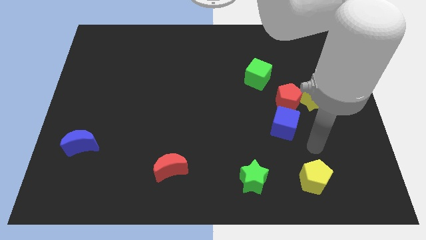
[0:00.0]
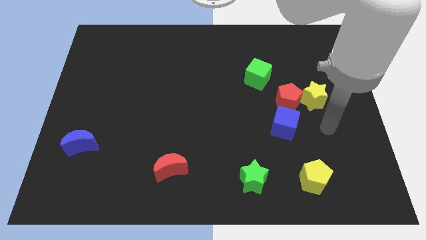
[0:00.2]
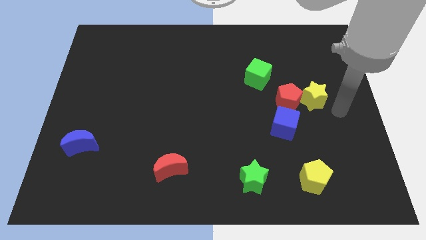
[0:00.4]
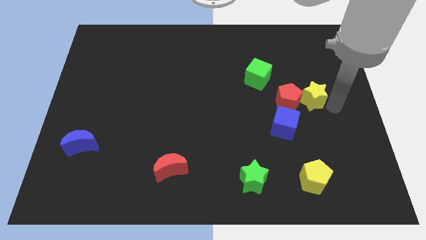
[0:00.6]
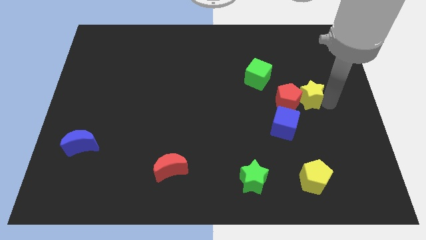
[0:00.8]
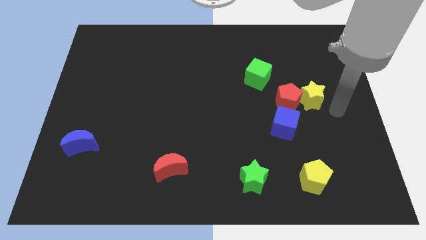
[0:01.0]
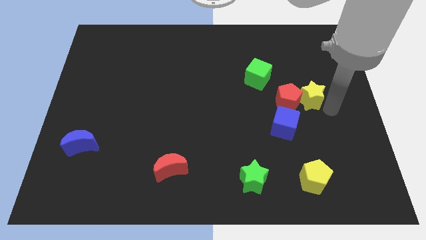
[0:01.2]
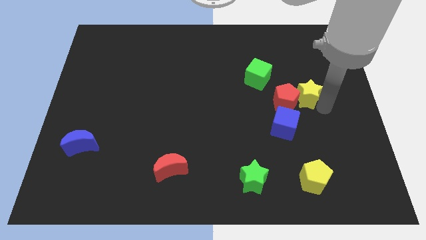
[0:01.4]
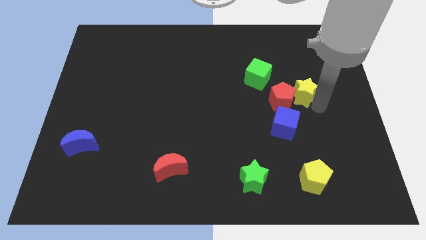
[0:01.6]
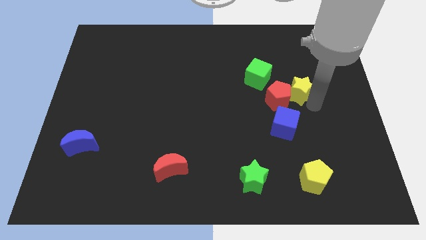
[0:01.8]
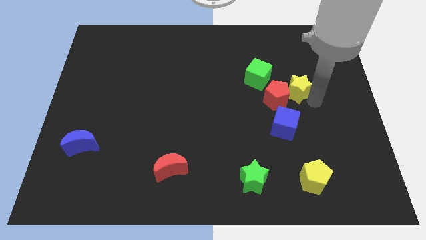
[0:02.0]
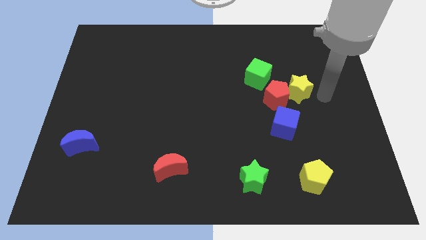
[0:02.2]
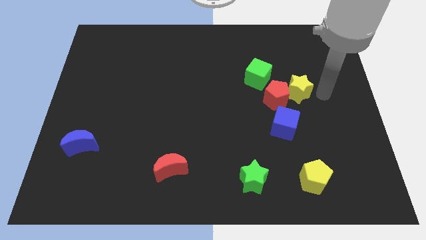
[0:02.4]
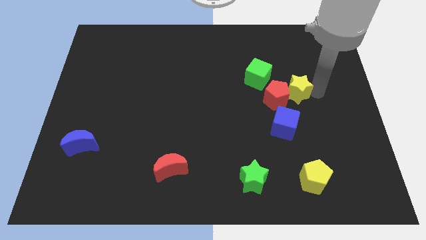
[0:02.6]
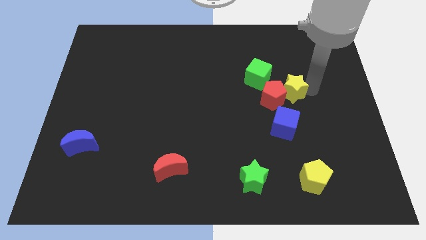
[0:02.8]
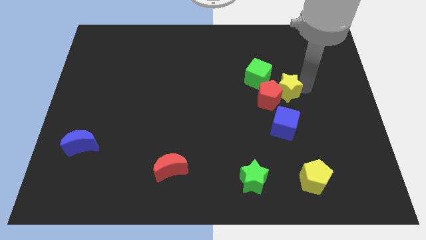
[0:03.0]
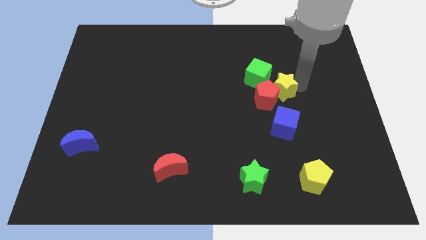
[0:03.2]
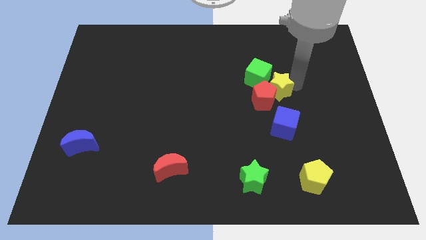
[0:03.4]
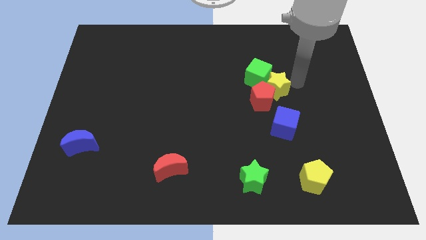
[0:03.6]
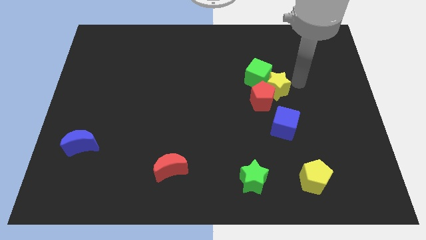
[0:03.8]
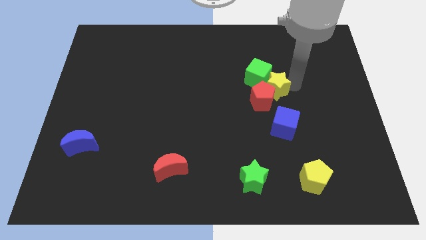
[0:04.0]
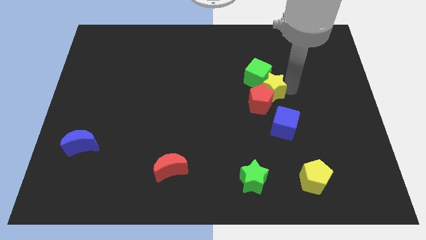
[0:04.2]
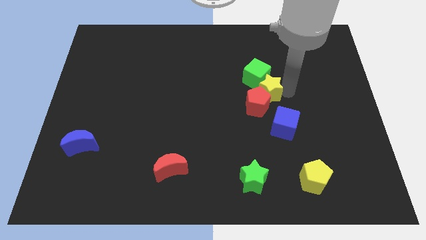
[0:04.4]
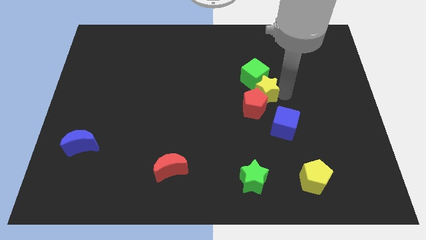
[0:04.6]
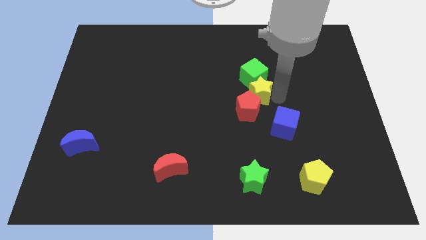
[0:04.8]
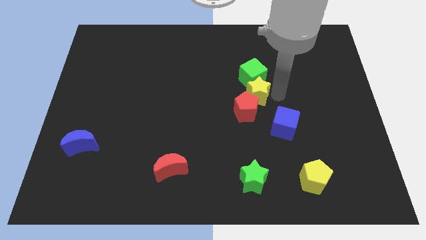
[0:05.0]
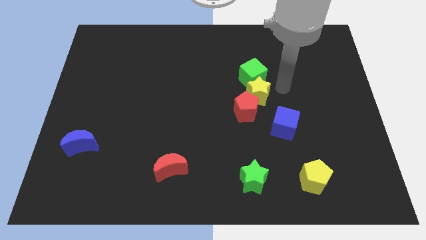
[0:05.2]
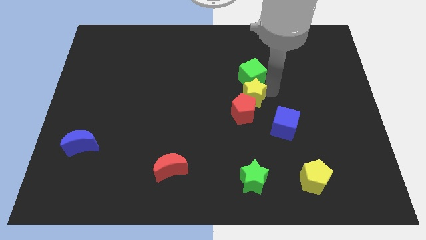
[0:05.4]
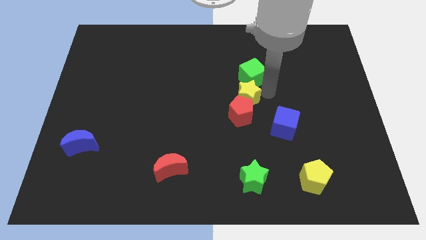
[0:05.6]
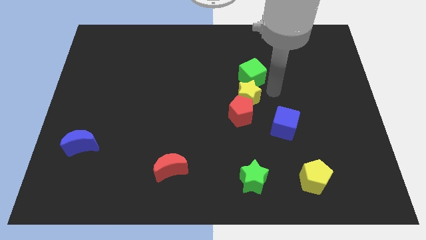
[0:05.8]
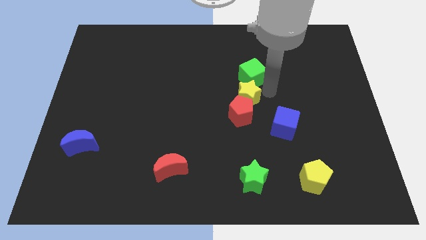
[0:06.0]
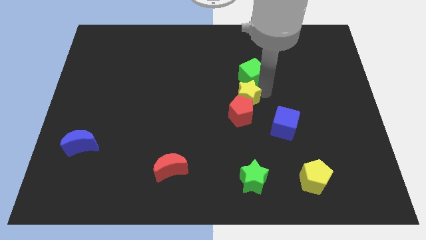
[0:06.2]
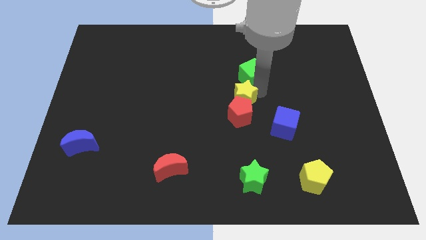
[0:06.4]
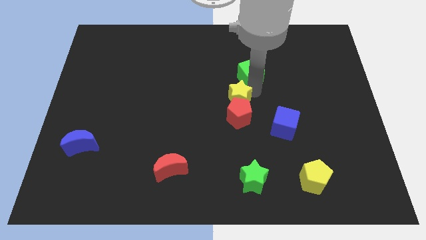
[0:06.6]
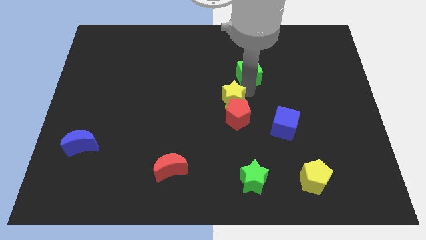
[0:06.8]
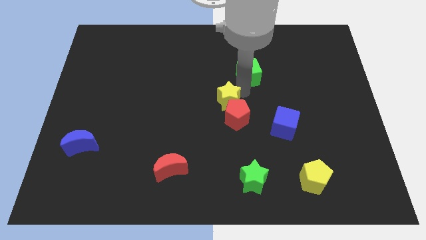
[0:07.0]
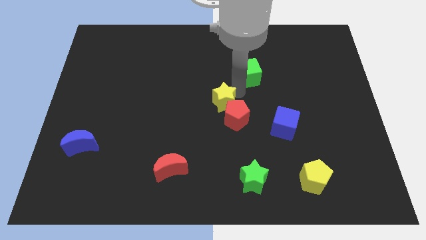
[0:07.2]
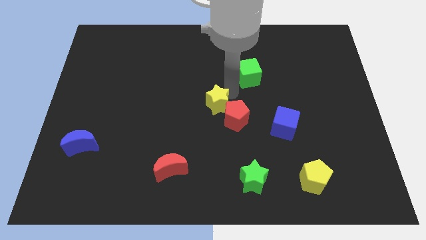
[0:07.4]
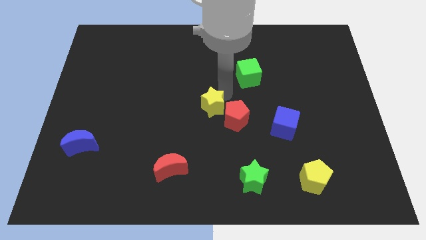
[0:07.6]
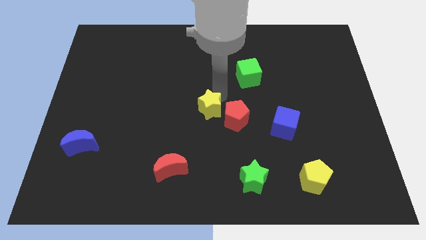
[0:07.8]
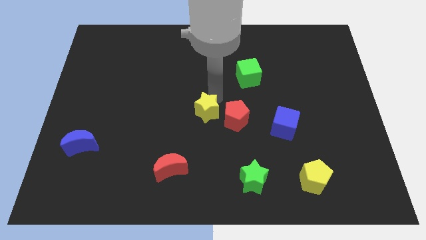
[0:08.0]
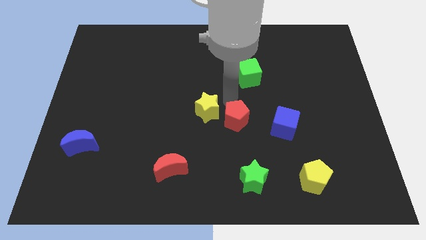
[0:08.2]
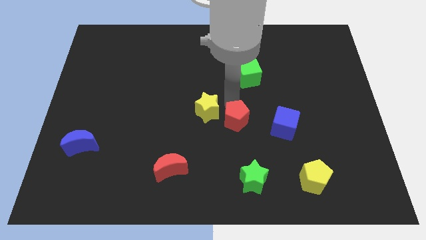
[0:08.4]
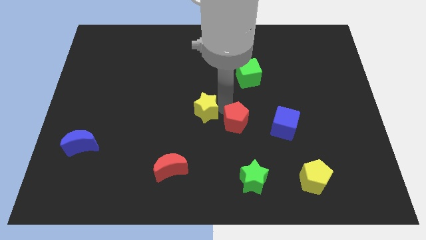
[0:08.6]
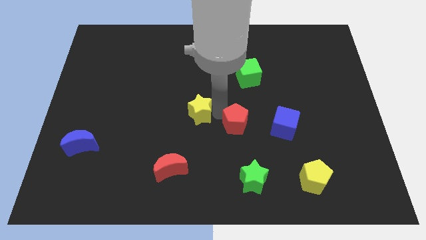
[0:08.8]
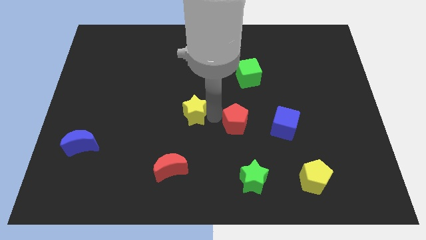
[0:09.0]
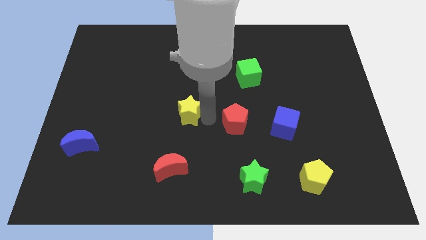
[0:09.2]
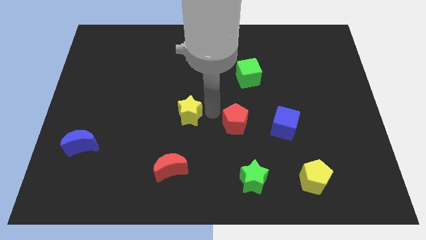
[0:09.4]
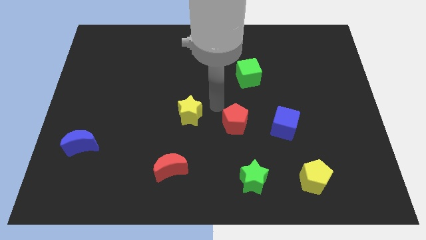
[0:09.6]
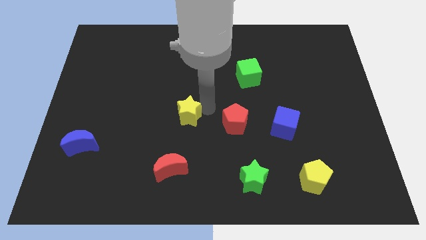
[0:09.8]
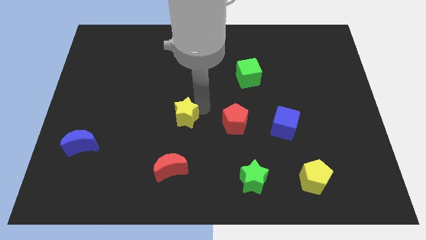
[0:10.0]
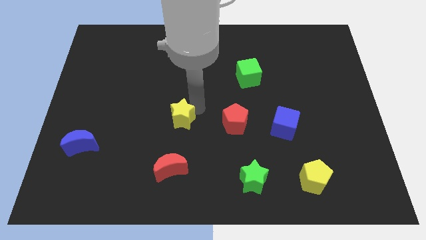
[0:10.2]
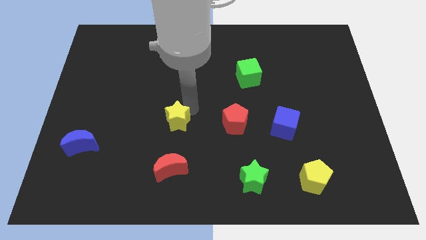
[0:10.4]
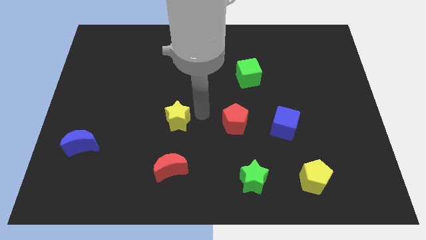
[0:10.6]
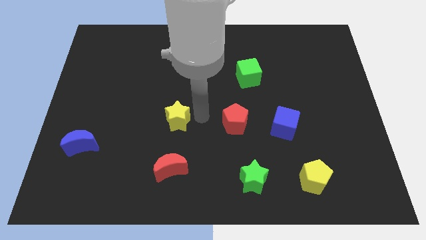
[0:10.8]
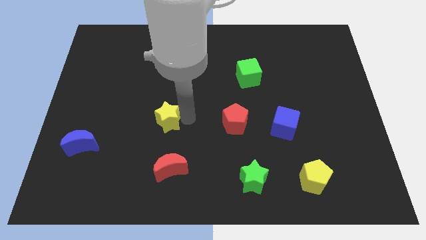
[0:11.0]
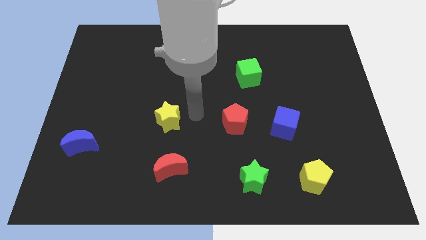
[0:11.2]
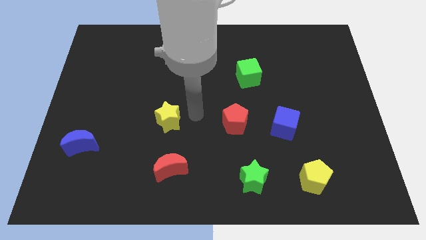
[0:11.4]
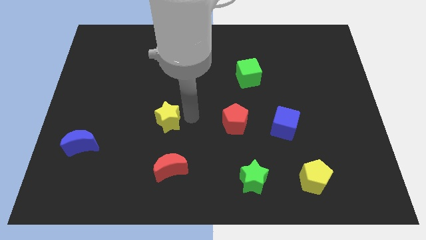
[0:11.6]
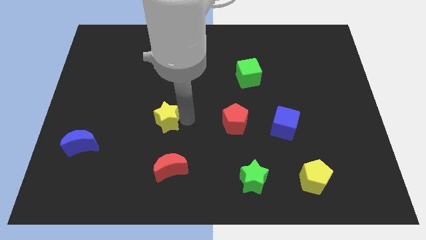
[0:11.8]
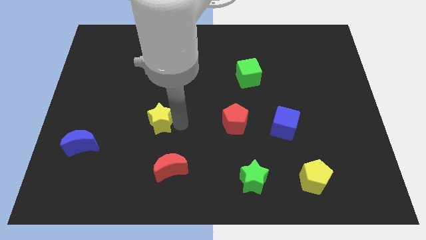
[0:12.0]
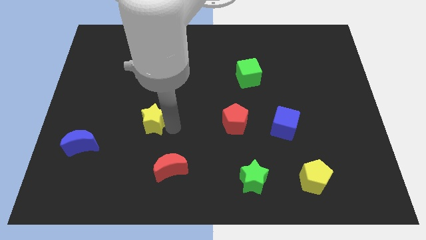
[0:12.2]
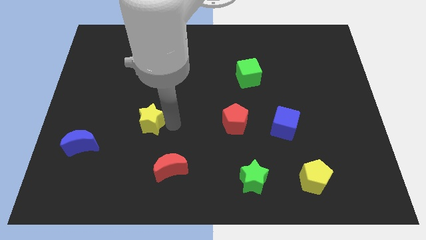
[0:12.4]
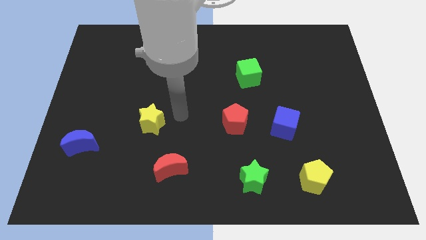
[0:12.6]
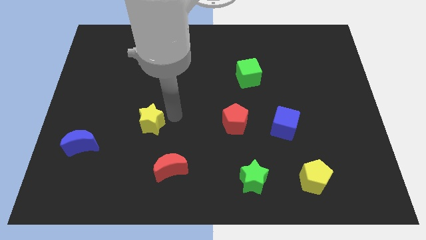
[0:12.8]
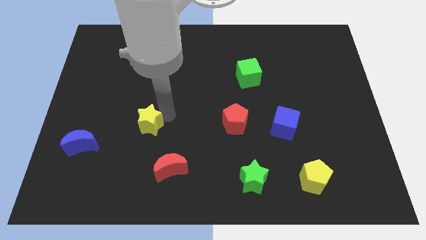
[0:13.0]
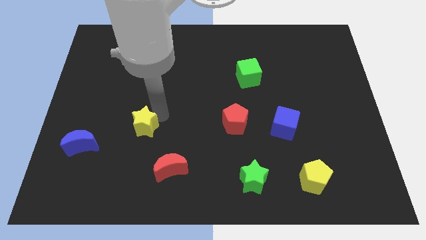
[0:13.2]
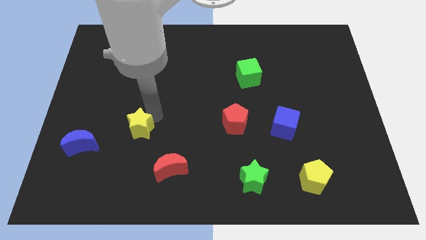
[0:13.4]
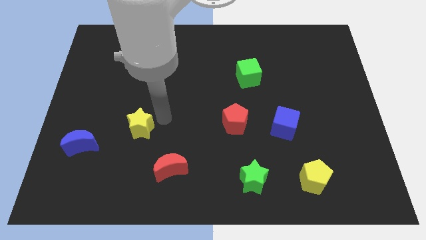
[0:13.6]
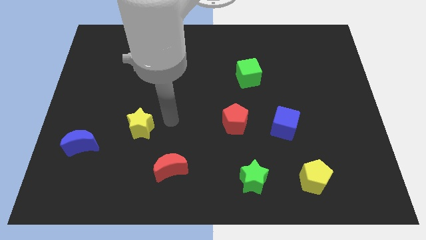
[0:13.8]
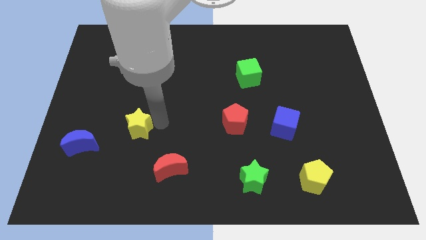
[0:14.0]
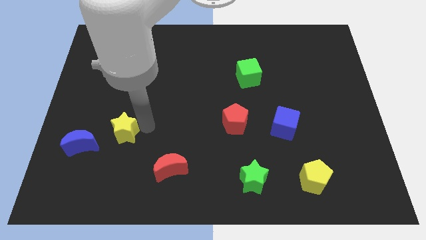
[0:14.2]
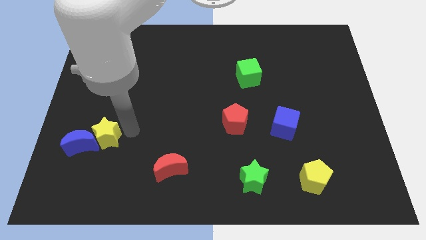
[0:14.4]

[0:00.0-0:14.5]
slide the yellow star next to the blue moon
